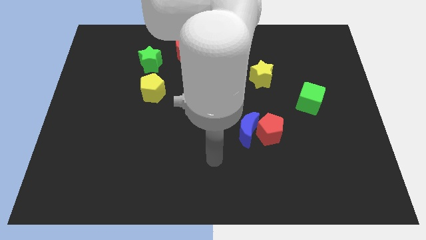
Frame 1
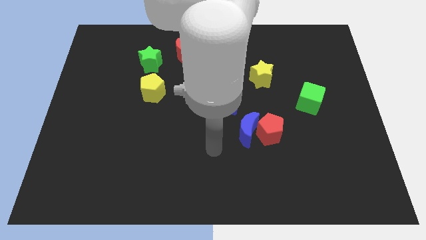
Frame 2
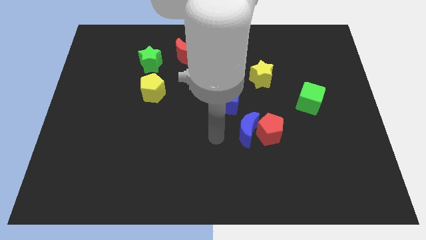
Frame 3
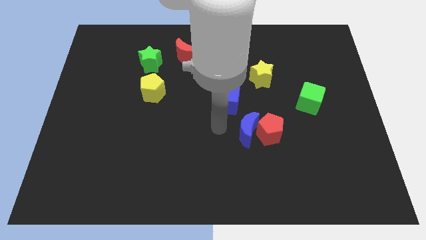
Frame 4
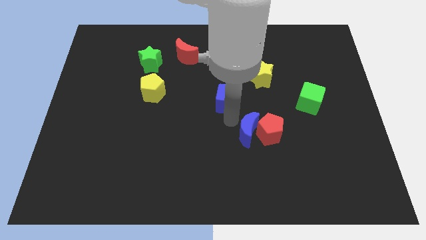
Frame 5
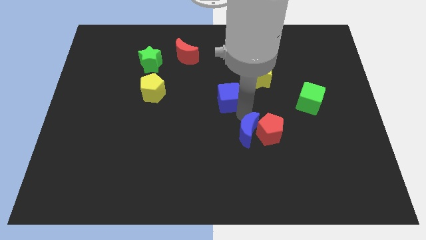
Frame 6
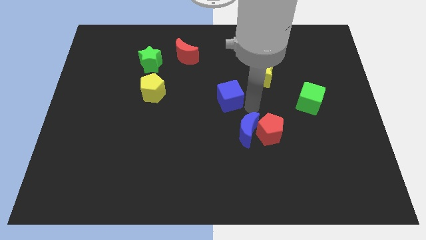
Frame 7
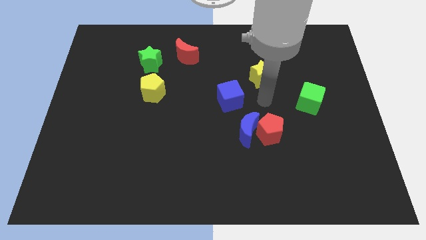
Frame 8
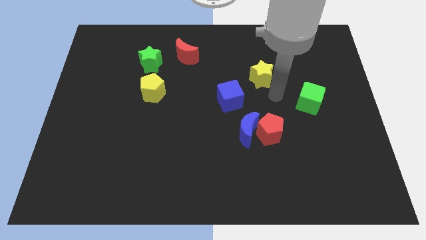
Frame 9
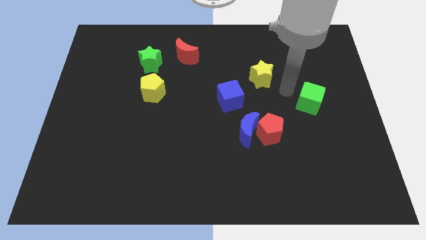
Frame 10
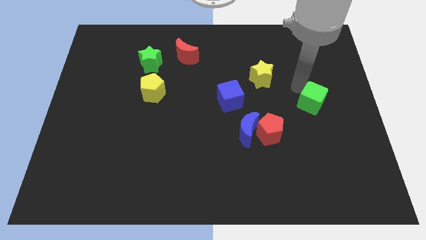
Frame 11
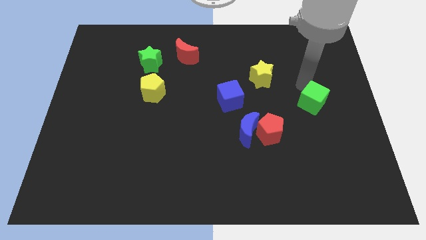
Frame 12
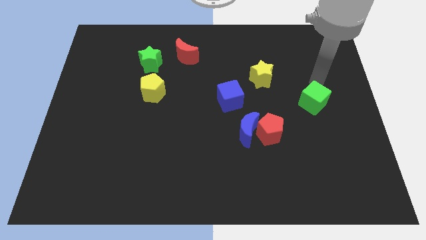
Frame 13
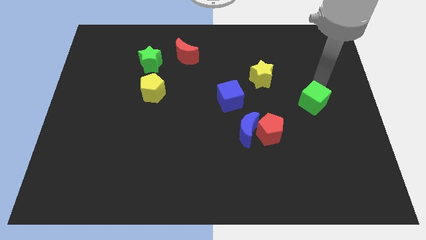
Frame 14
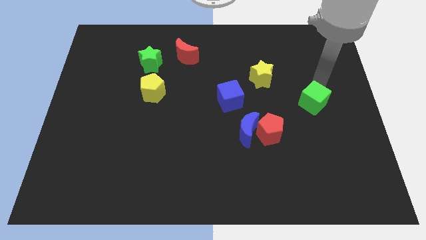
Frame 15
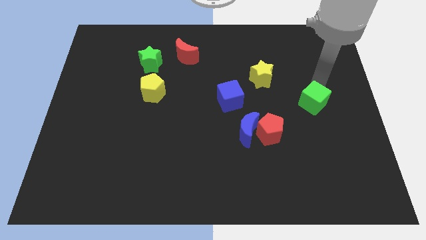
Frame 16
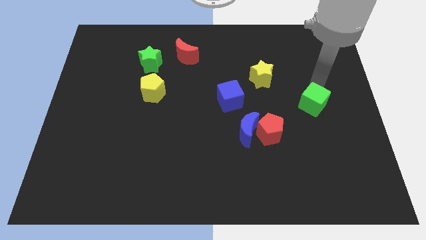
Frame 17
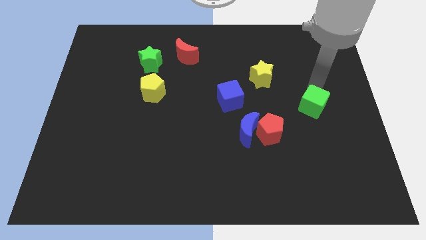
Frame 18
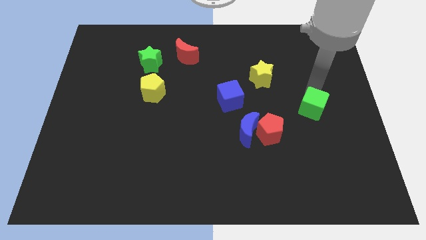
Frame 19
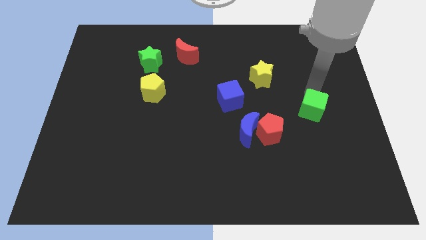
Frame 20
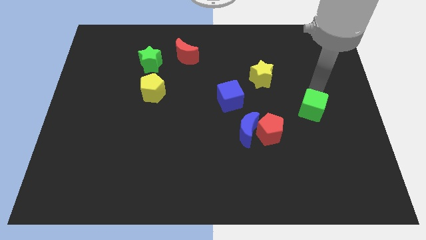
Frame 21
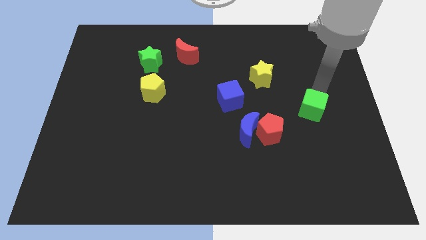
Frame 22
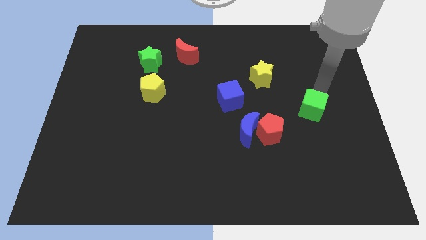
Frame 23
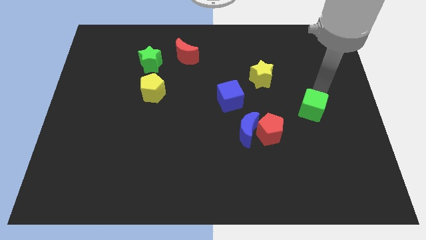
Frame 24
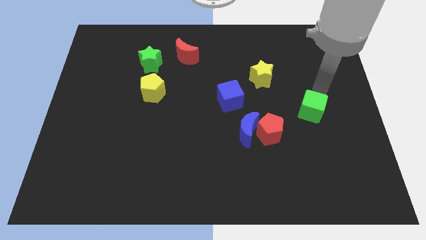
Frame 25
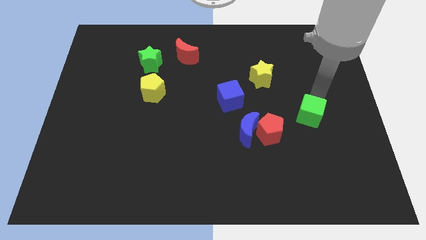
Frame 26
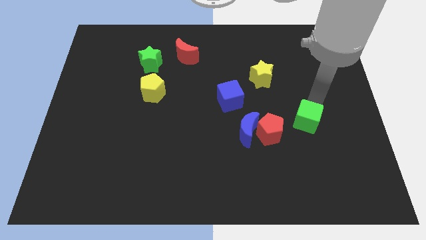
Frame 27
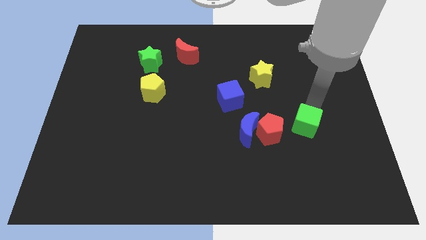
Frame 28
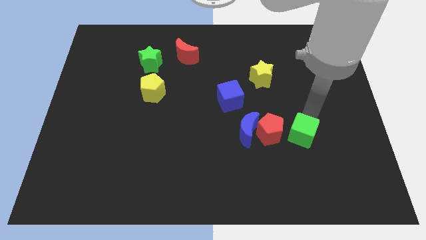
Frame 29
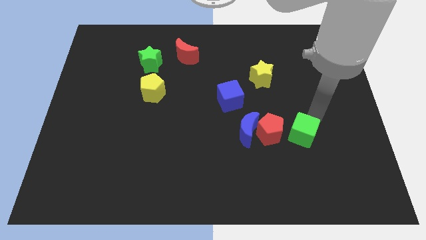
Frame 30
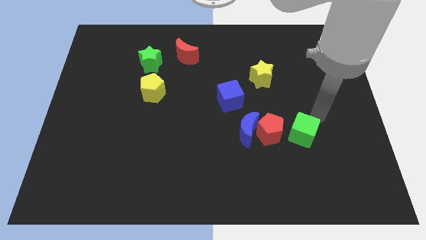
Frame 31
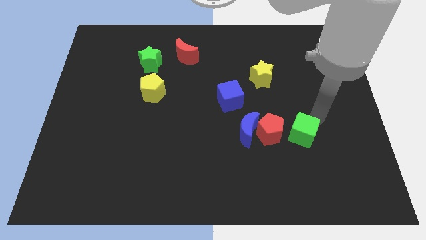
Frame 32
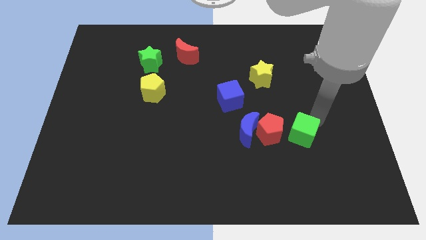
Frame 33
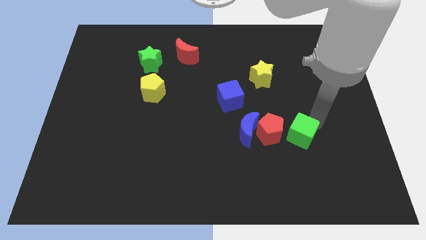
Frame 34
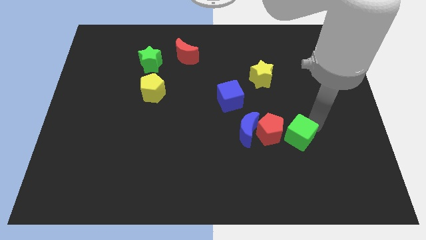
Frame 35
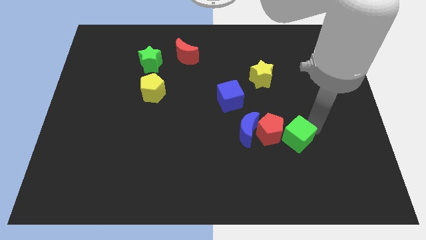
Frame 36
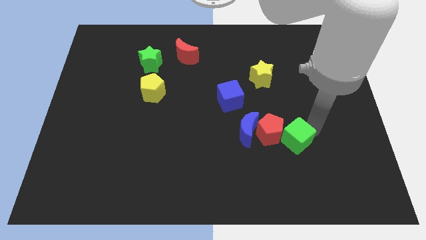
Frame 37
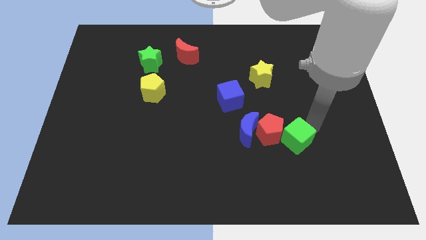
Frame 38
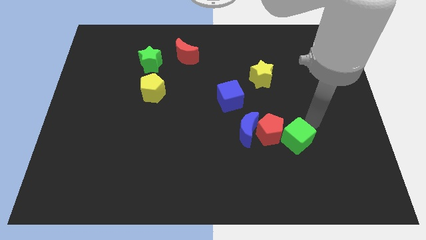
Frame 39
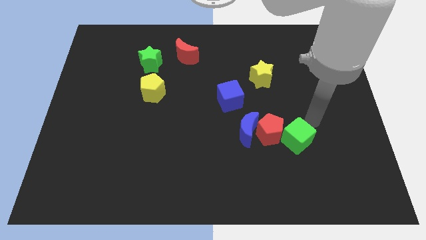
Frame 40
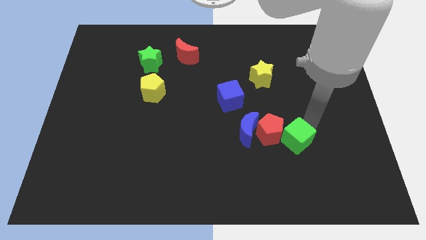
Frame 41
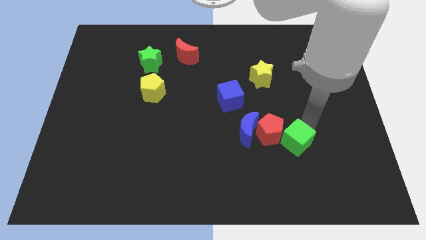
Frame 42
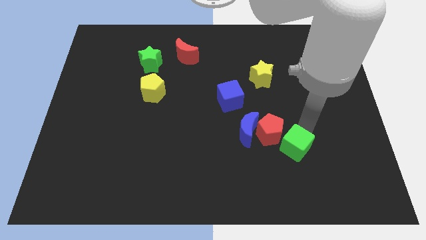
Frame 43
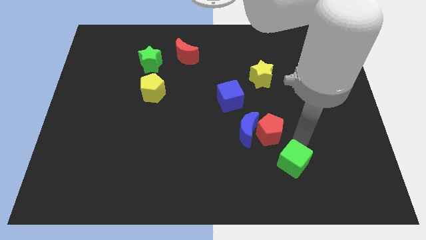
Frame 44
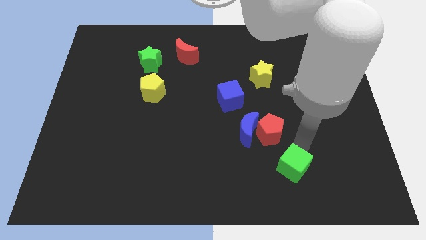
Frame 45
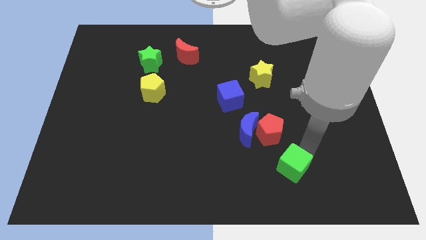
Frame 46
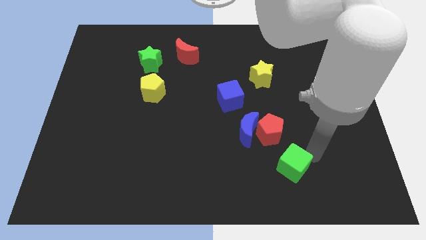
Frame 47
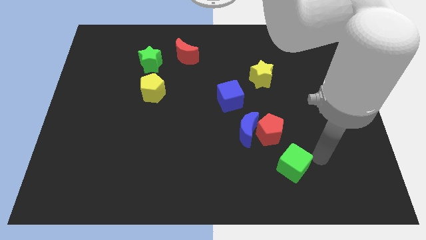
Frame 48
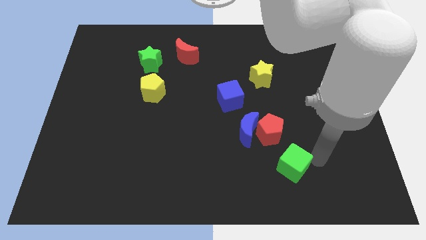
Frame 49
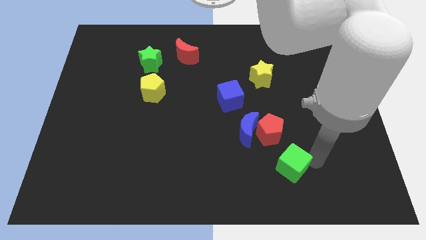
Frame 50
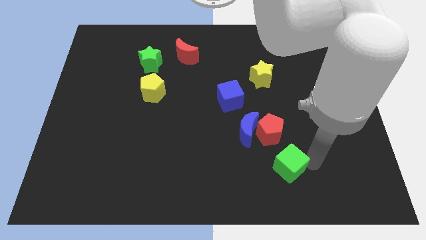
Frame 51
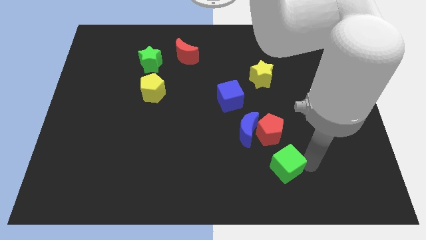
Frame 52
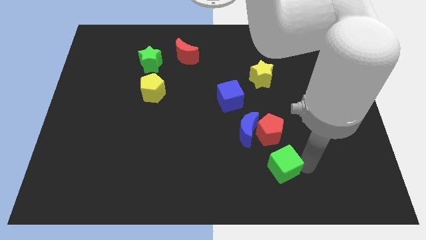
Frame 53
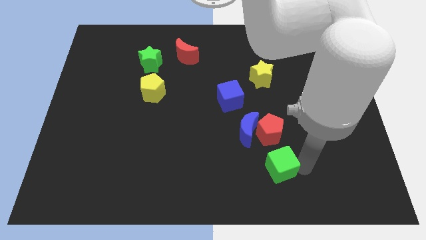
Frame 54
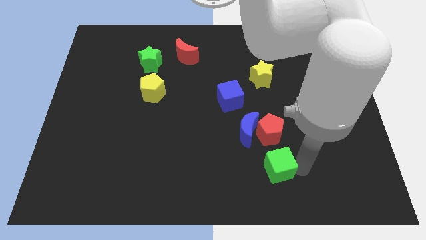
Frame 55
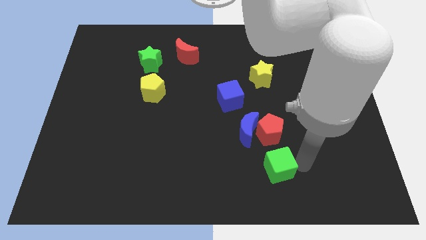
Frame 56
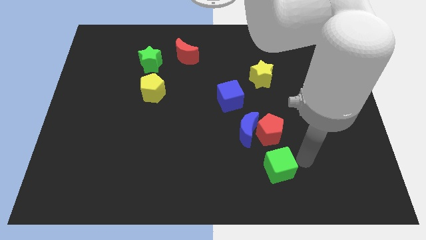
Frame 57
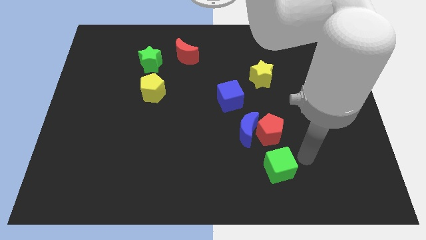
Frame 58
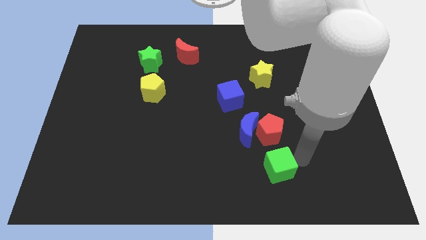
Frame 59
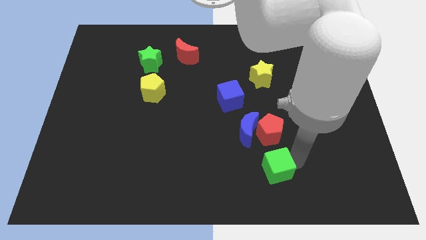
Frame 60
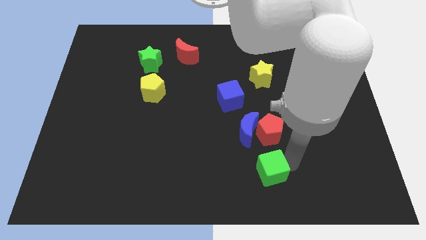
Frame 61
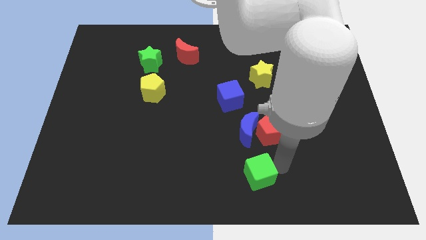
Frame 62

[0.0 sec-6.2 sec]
move the green cube to the bottom side
